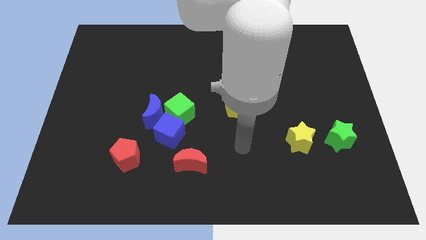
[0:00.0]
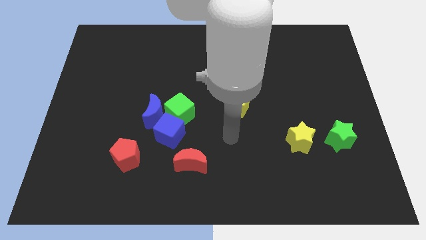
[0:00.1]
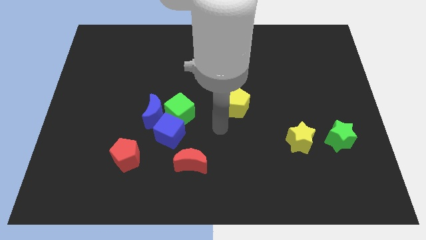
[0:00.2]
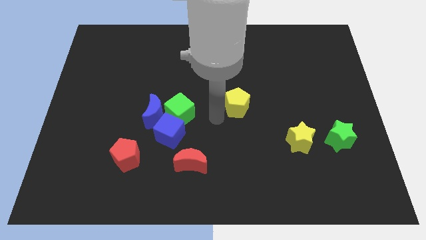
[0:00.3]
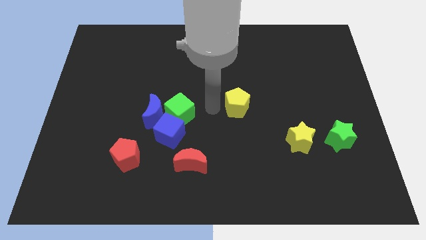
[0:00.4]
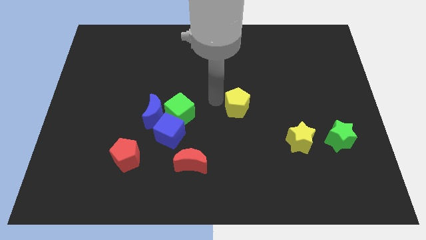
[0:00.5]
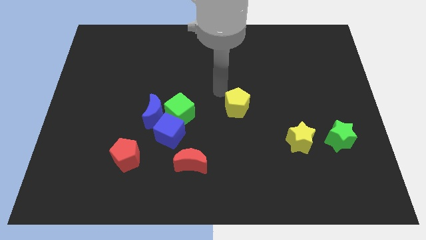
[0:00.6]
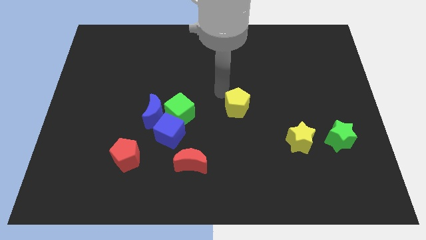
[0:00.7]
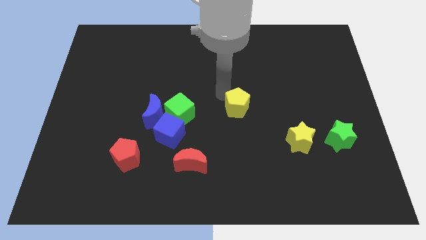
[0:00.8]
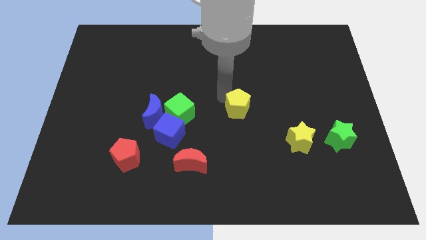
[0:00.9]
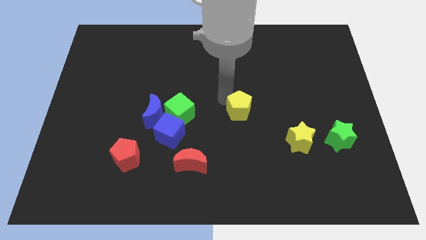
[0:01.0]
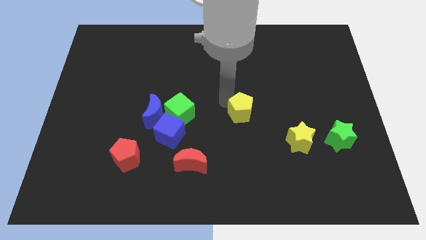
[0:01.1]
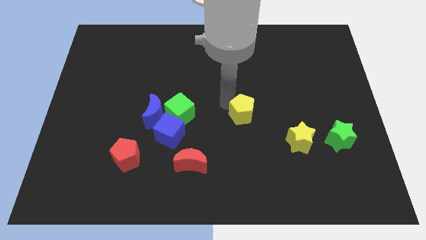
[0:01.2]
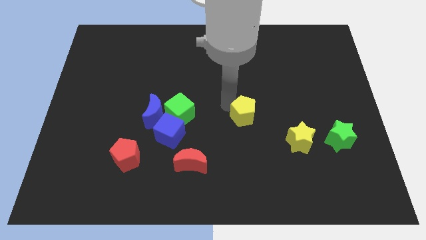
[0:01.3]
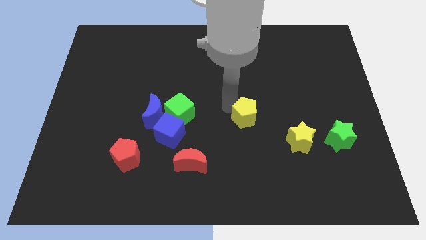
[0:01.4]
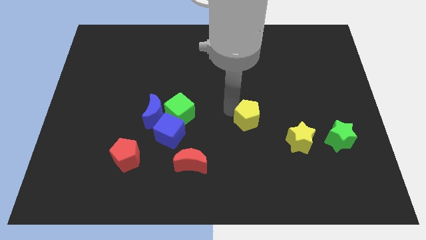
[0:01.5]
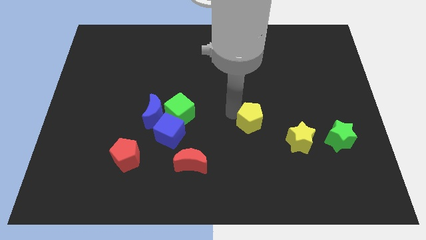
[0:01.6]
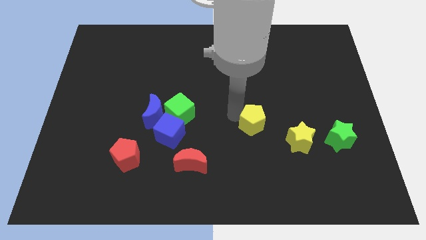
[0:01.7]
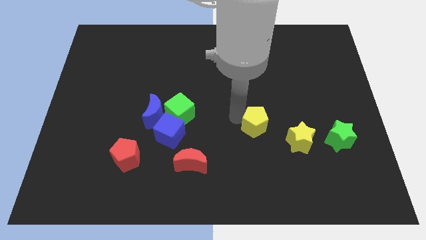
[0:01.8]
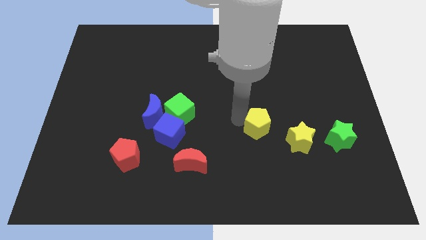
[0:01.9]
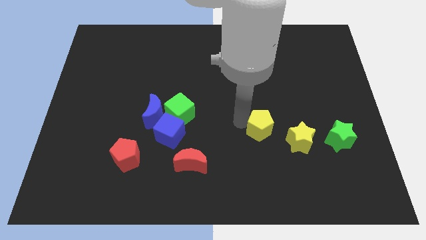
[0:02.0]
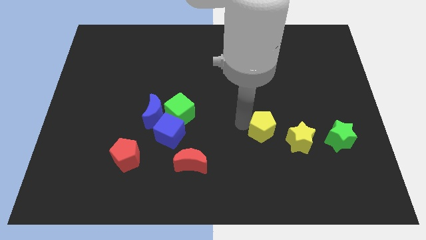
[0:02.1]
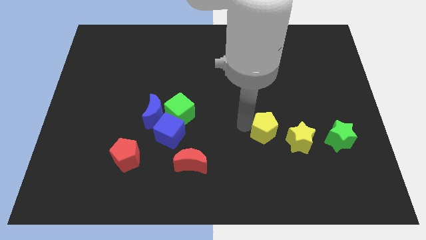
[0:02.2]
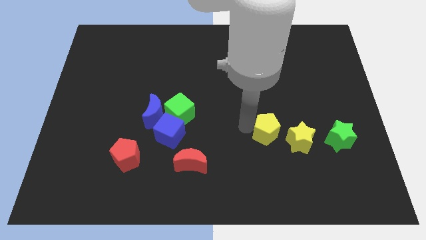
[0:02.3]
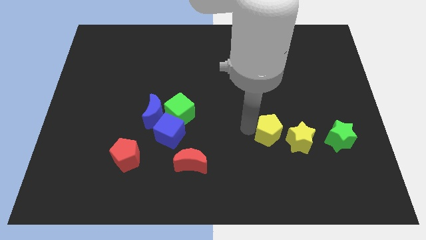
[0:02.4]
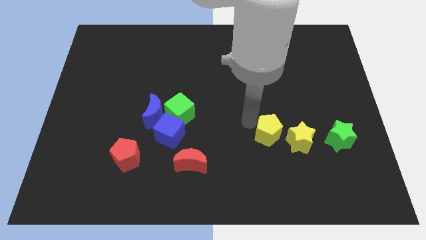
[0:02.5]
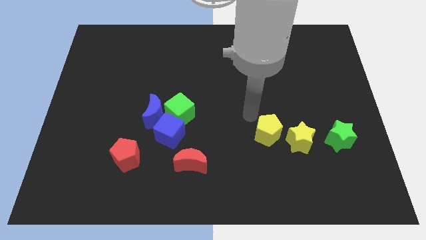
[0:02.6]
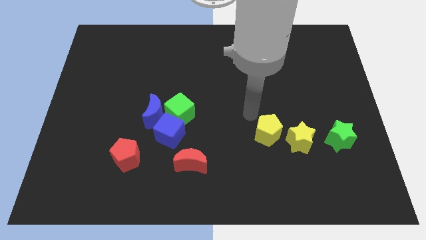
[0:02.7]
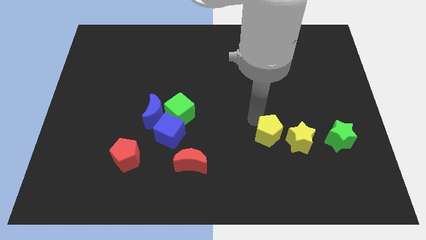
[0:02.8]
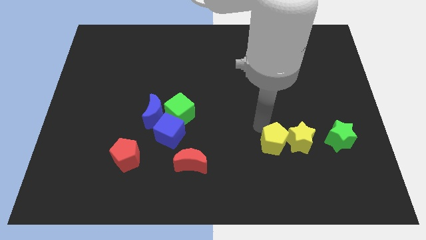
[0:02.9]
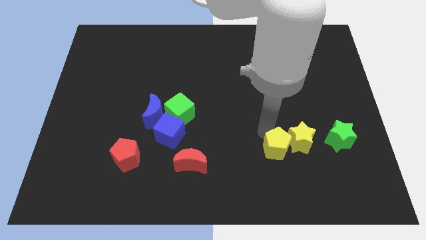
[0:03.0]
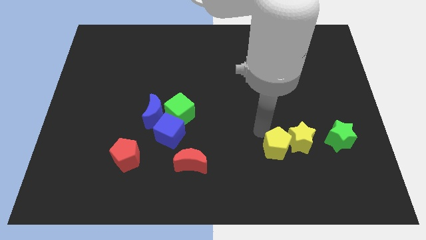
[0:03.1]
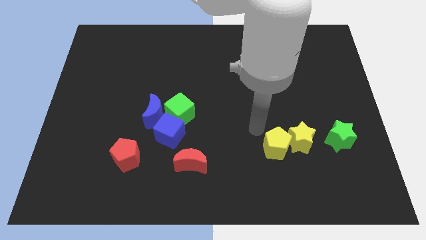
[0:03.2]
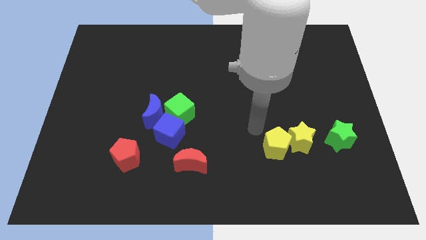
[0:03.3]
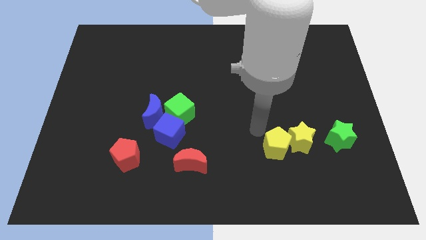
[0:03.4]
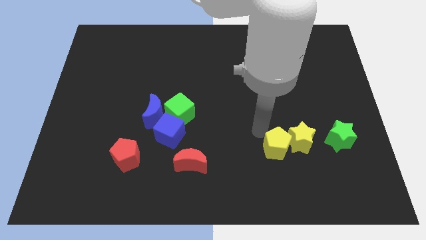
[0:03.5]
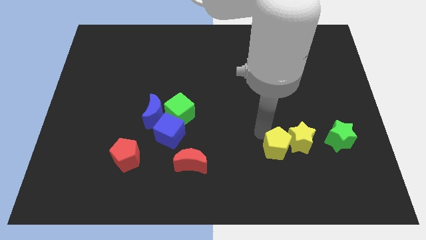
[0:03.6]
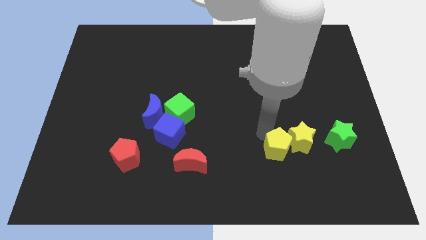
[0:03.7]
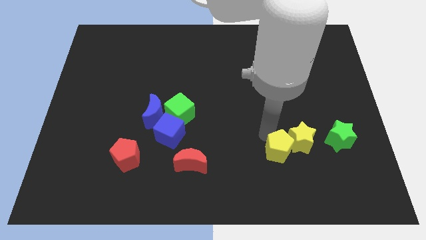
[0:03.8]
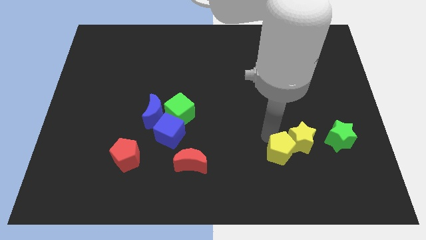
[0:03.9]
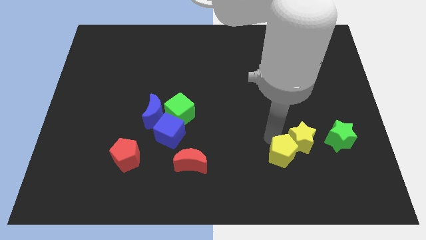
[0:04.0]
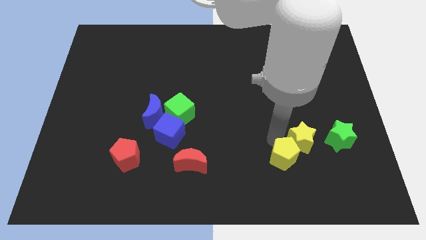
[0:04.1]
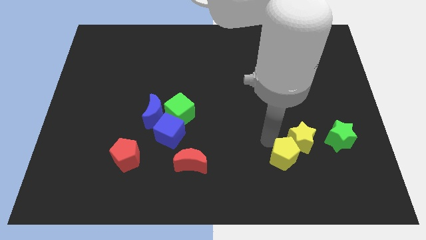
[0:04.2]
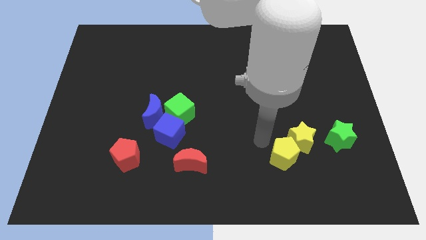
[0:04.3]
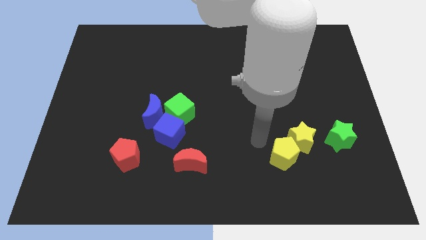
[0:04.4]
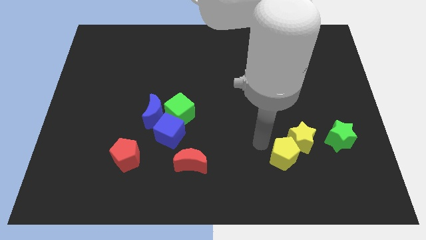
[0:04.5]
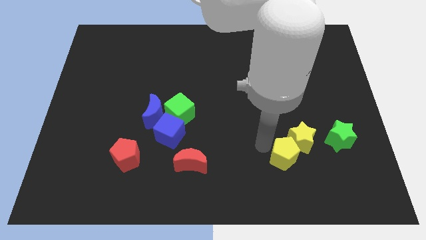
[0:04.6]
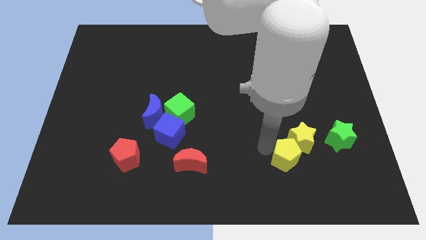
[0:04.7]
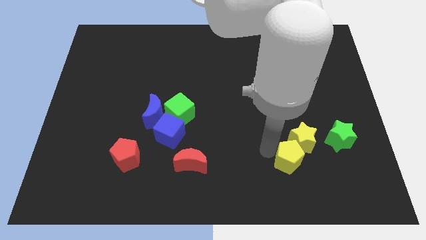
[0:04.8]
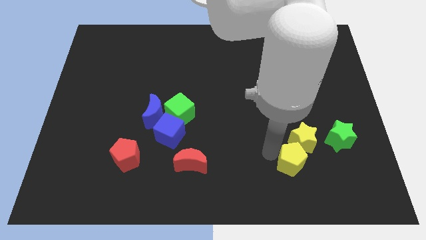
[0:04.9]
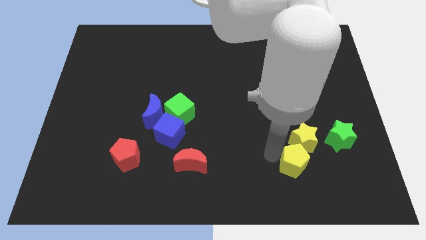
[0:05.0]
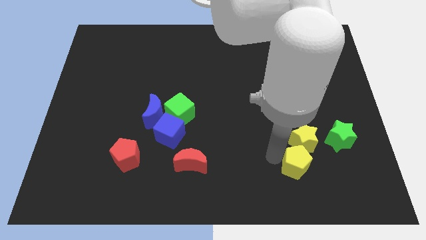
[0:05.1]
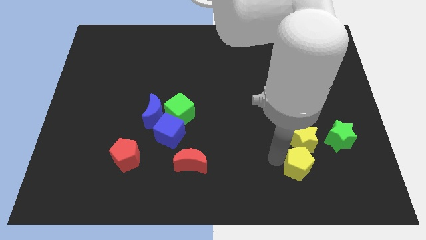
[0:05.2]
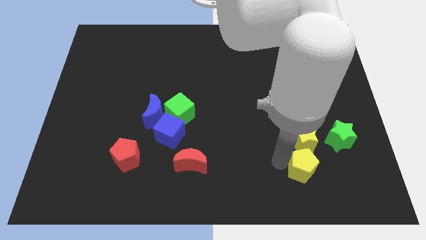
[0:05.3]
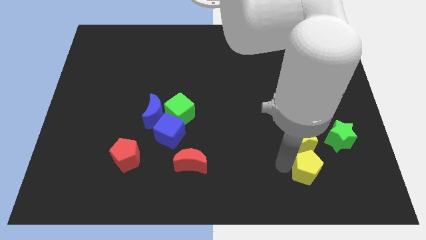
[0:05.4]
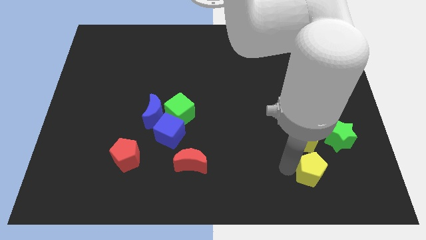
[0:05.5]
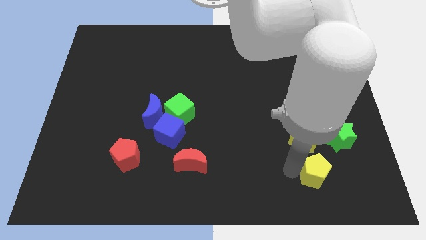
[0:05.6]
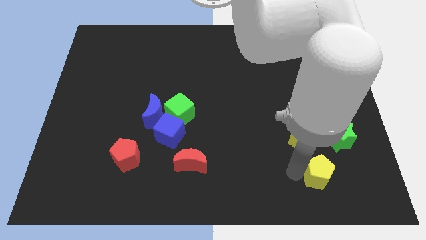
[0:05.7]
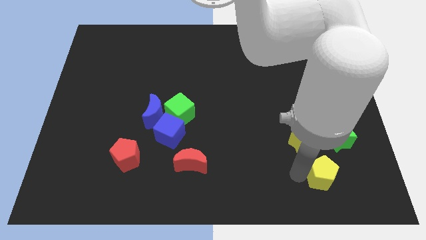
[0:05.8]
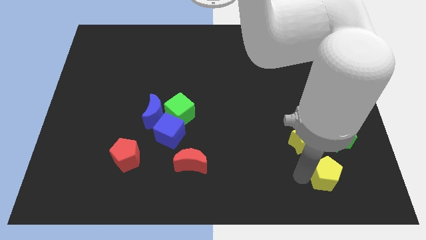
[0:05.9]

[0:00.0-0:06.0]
move the yellow pentagon to the bottom side of the green star

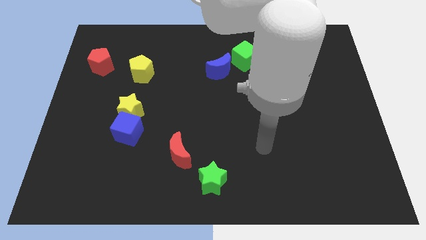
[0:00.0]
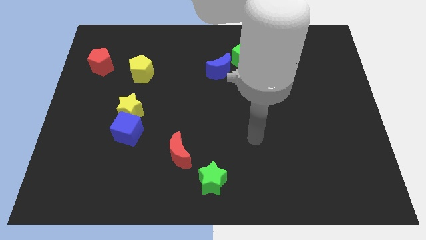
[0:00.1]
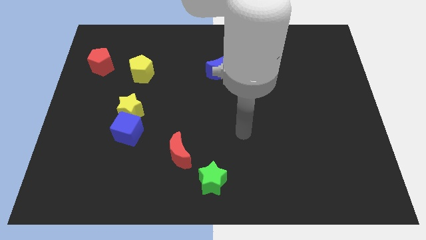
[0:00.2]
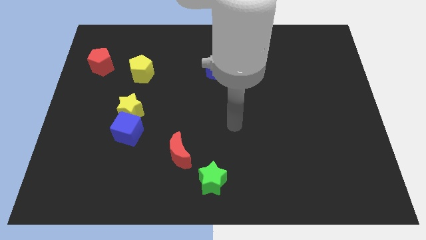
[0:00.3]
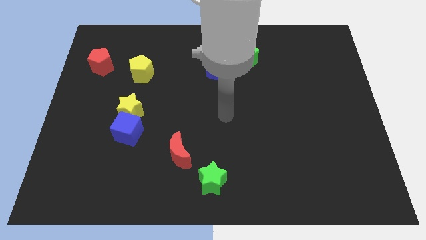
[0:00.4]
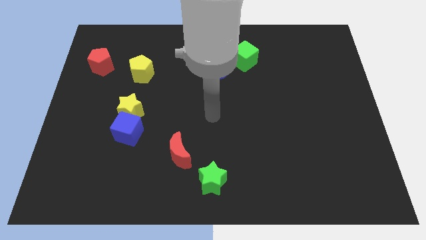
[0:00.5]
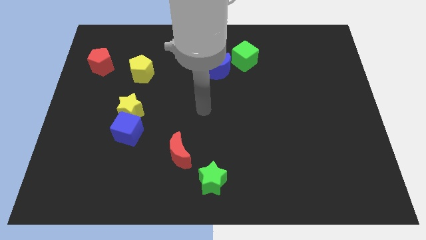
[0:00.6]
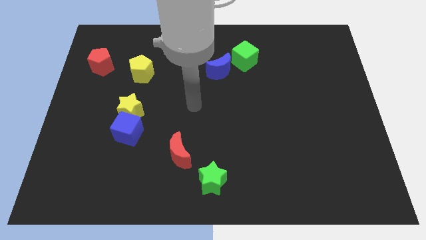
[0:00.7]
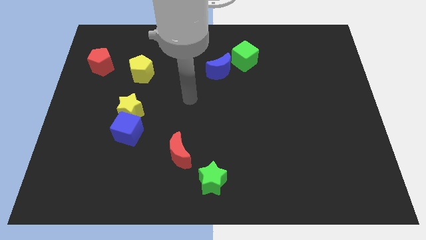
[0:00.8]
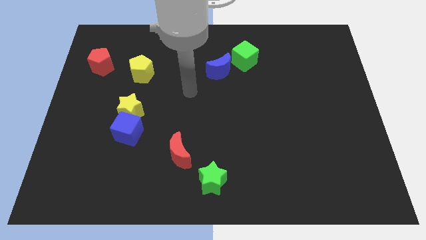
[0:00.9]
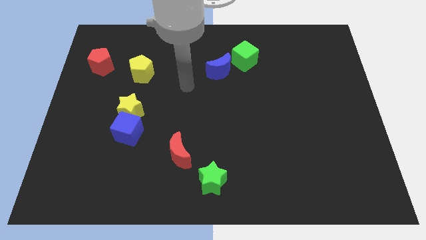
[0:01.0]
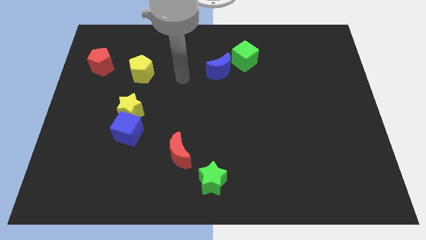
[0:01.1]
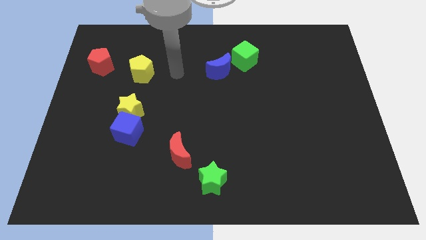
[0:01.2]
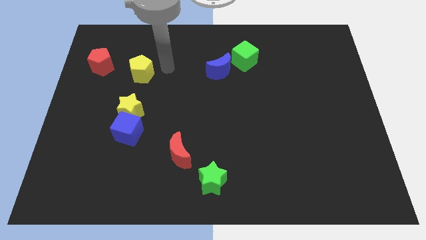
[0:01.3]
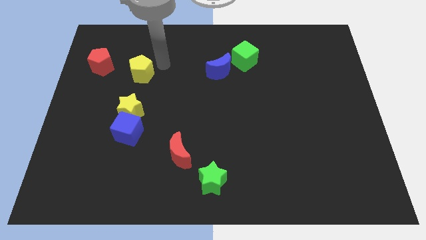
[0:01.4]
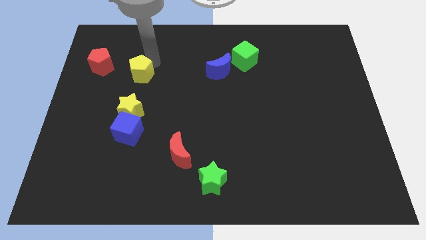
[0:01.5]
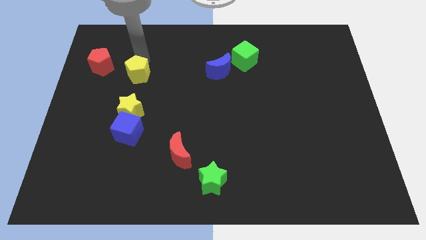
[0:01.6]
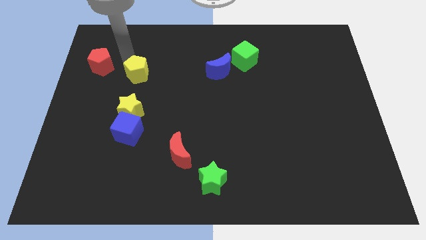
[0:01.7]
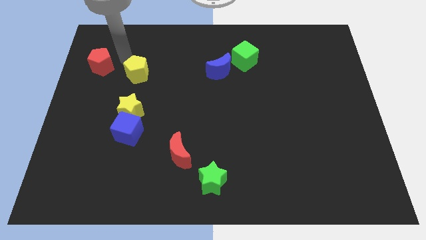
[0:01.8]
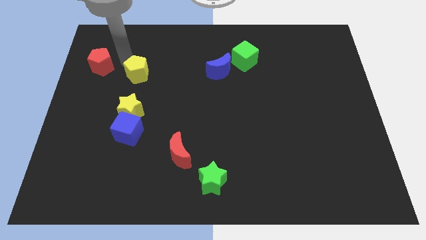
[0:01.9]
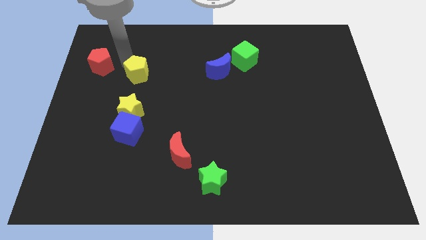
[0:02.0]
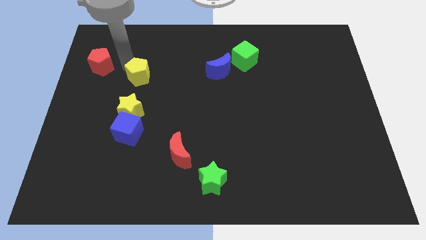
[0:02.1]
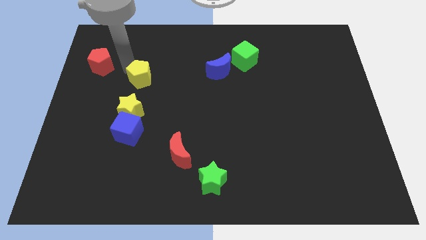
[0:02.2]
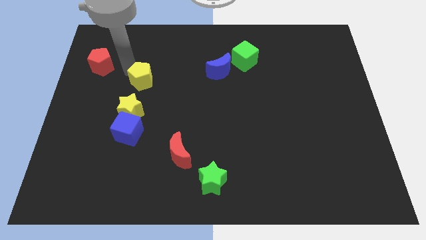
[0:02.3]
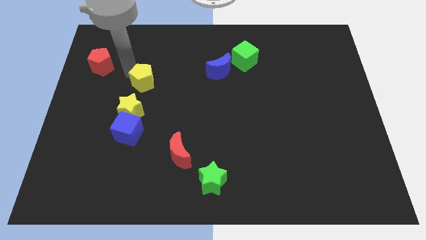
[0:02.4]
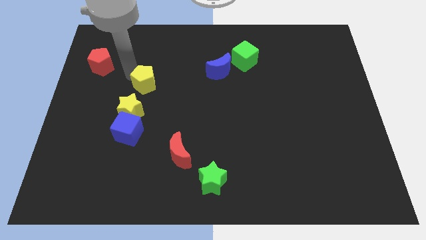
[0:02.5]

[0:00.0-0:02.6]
slide the yellow pentagon to the top right side of the yellow star
